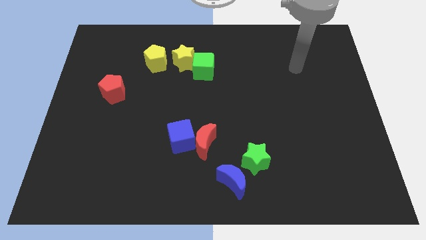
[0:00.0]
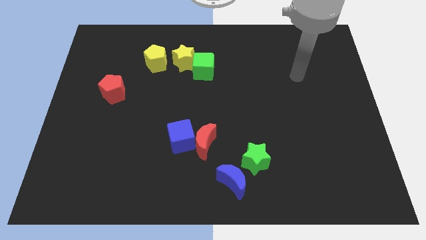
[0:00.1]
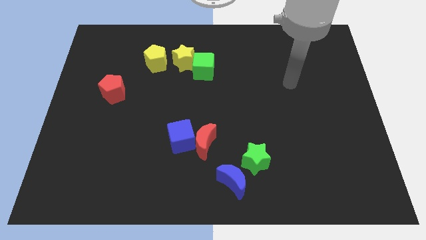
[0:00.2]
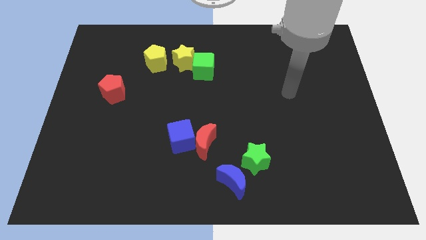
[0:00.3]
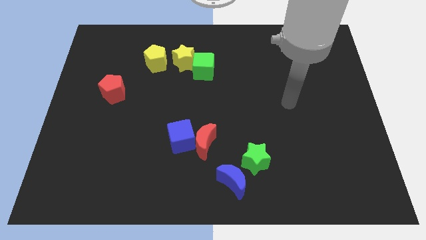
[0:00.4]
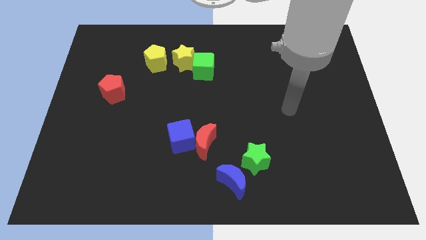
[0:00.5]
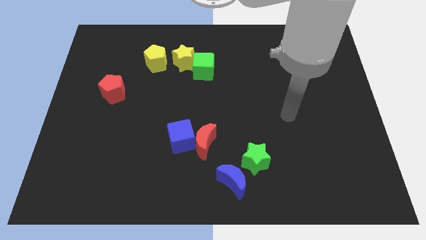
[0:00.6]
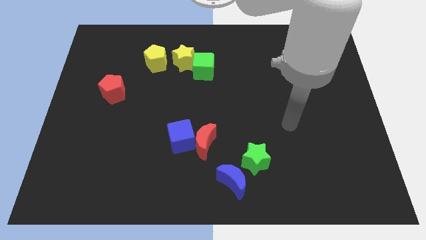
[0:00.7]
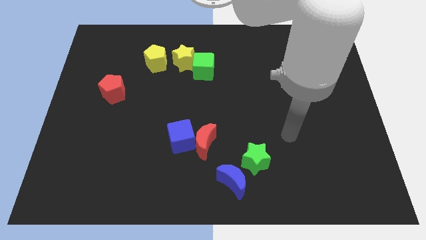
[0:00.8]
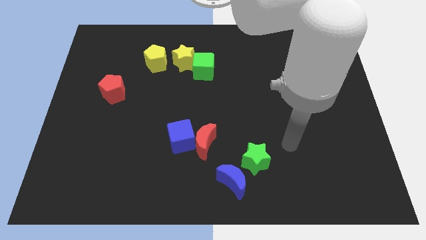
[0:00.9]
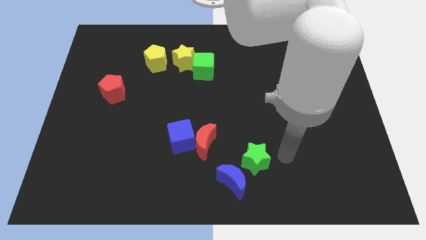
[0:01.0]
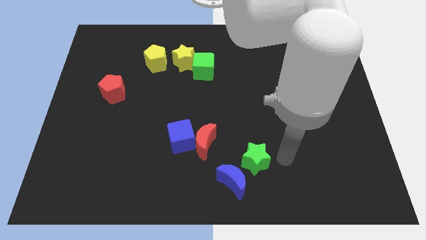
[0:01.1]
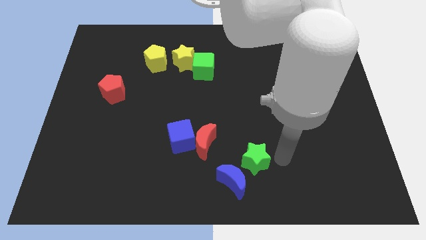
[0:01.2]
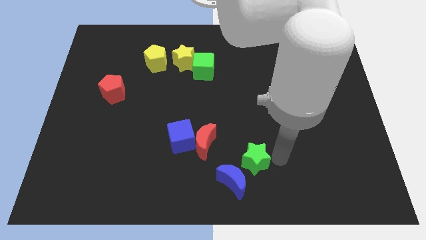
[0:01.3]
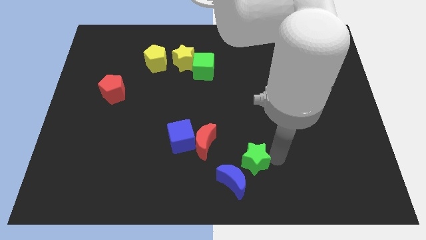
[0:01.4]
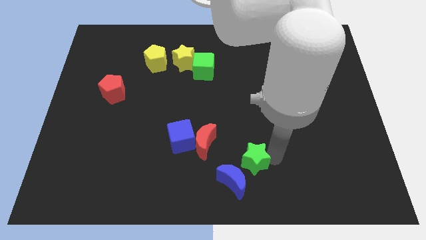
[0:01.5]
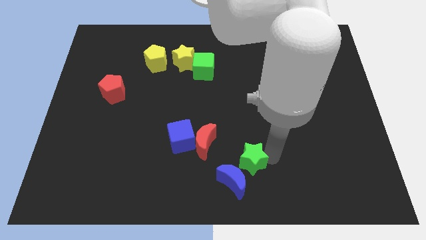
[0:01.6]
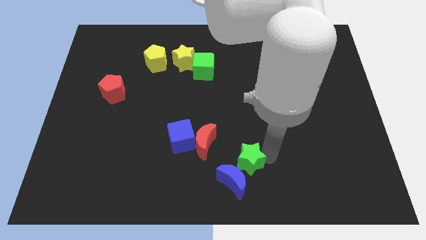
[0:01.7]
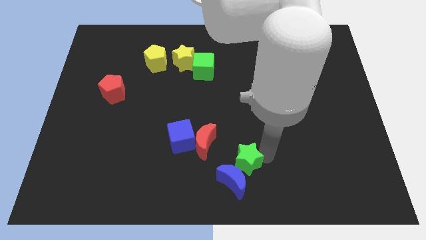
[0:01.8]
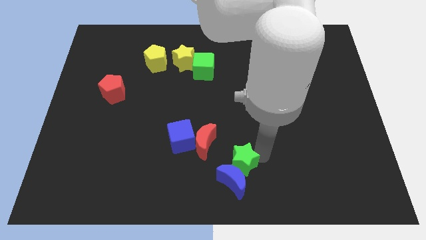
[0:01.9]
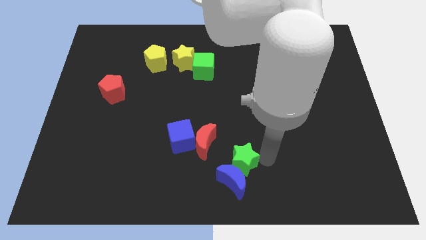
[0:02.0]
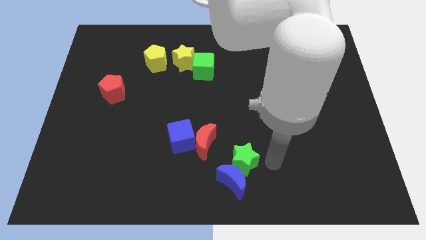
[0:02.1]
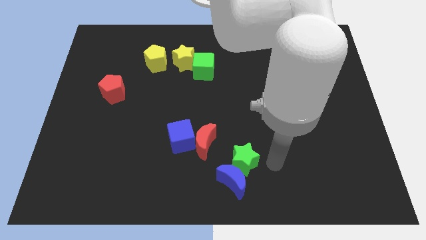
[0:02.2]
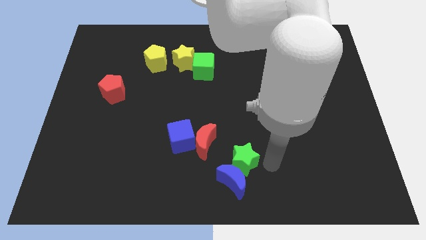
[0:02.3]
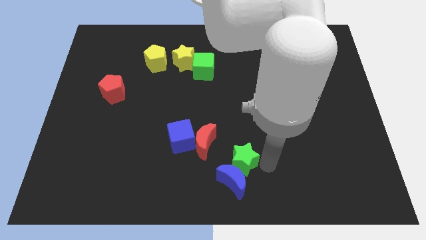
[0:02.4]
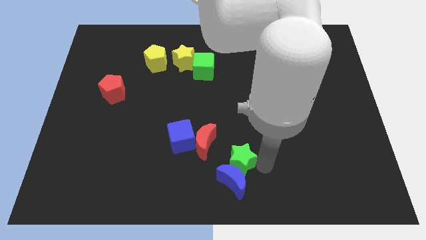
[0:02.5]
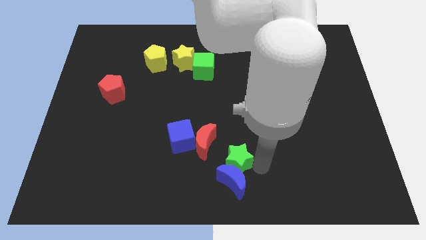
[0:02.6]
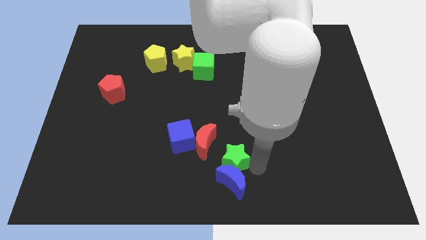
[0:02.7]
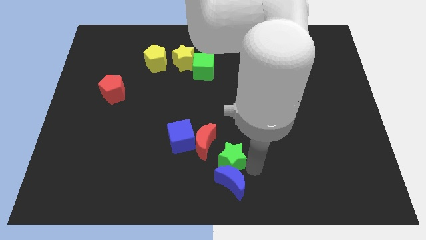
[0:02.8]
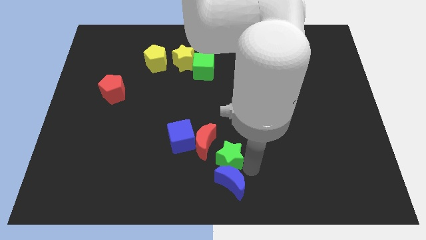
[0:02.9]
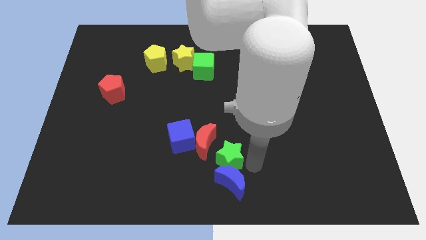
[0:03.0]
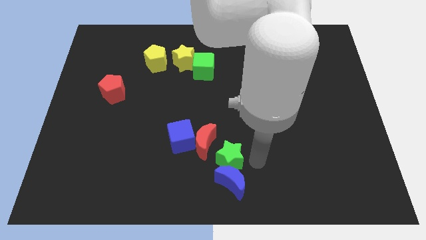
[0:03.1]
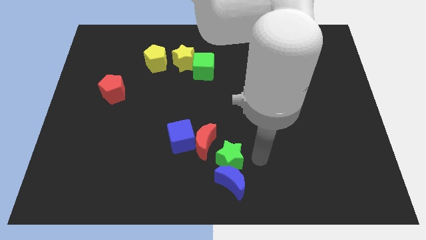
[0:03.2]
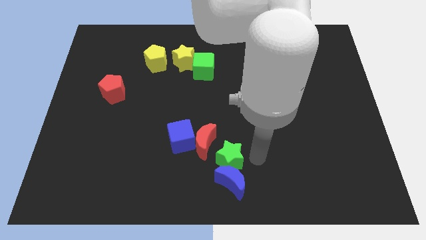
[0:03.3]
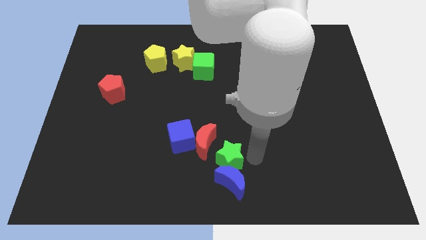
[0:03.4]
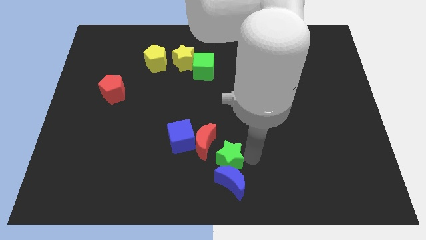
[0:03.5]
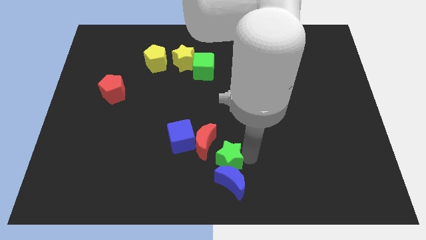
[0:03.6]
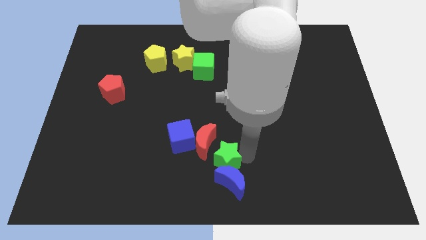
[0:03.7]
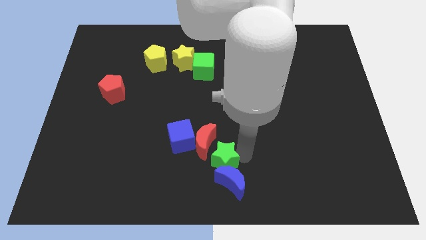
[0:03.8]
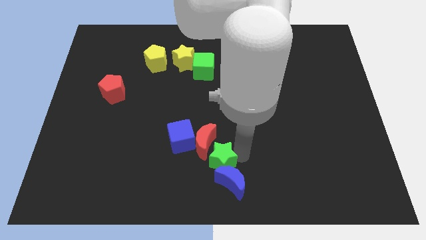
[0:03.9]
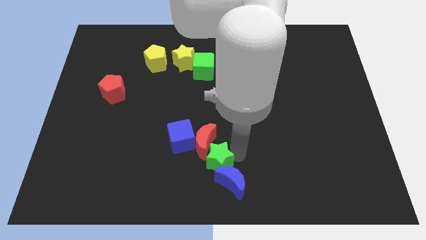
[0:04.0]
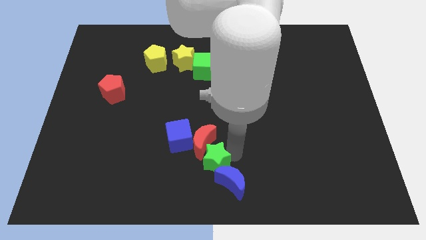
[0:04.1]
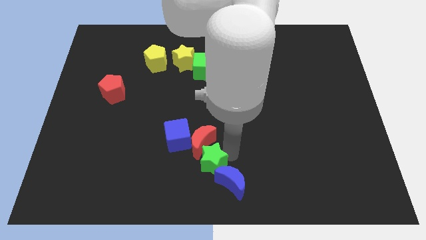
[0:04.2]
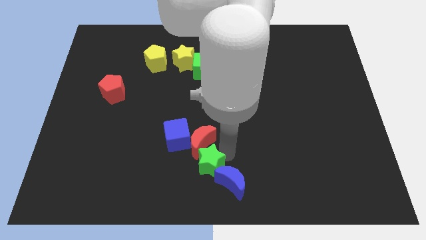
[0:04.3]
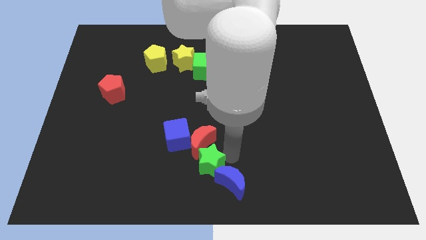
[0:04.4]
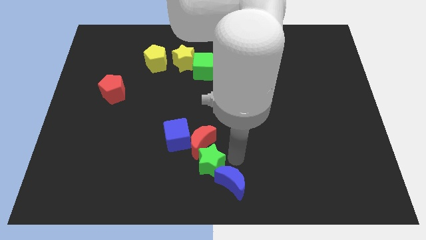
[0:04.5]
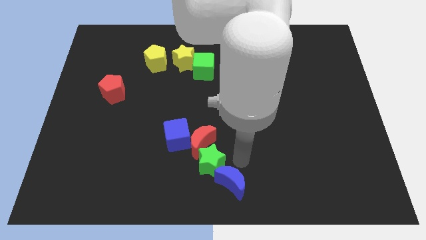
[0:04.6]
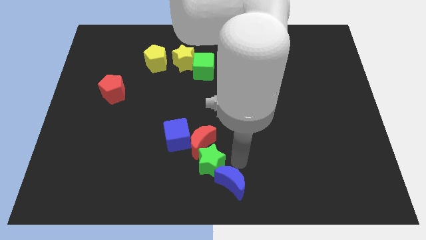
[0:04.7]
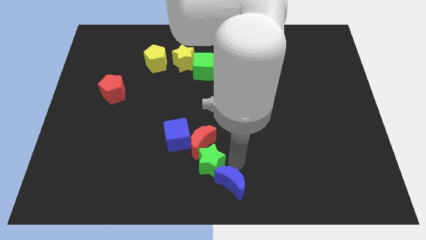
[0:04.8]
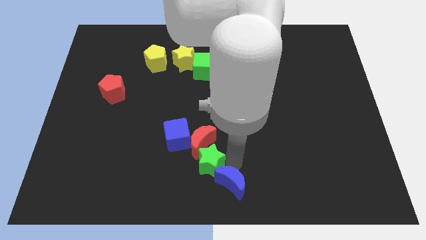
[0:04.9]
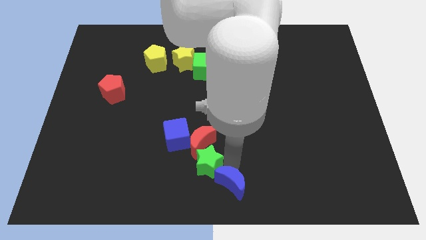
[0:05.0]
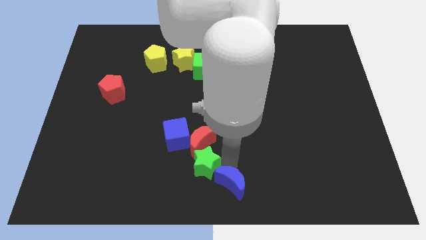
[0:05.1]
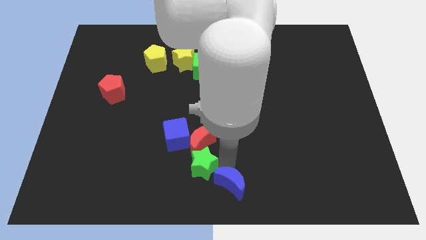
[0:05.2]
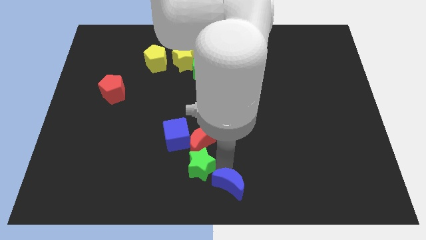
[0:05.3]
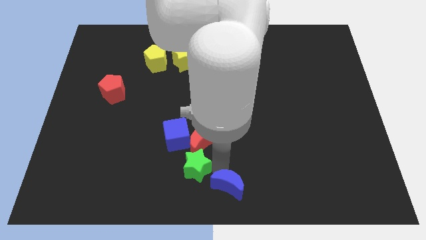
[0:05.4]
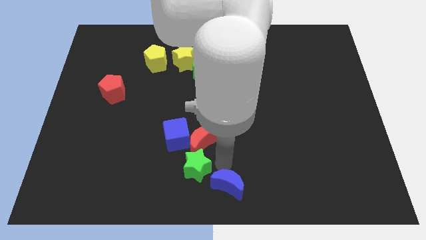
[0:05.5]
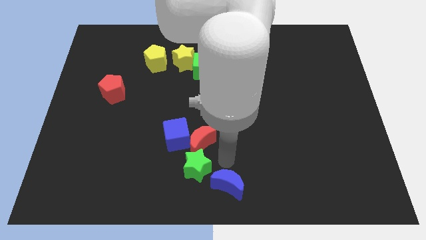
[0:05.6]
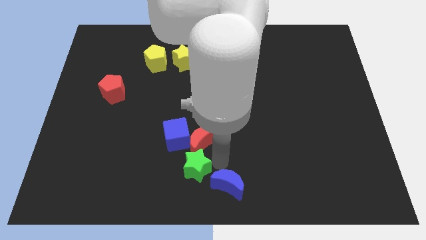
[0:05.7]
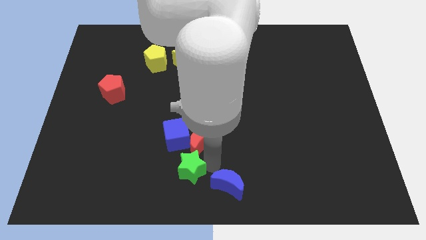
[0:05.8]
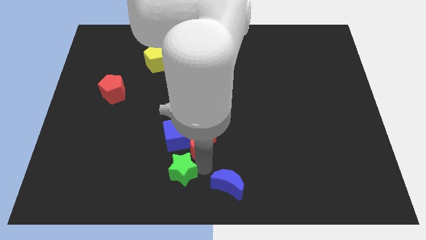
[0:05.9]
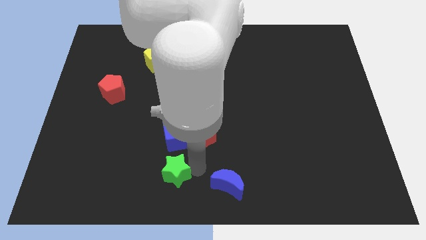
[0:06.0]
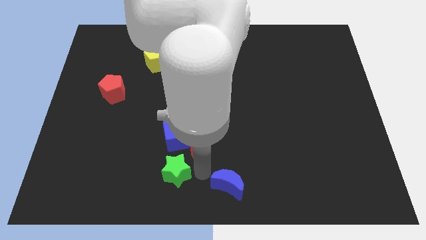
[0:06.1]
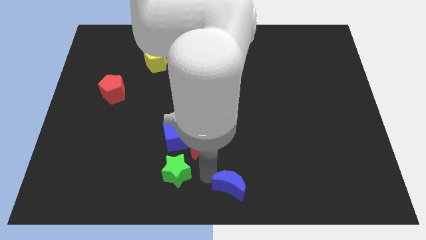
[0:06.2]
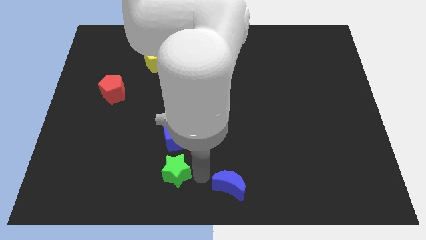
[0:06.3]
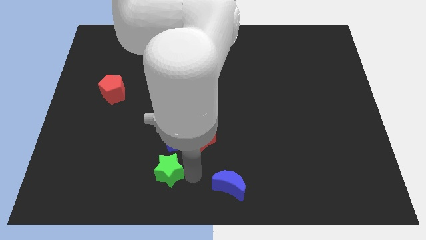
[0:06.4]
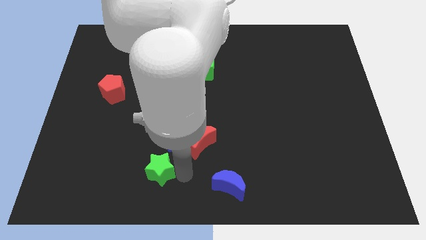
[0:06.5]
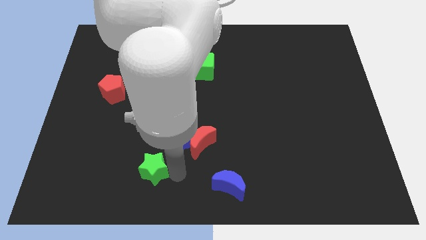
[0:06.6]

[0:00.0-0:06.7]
push the green star to the left

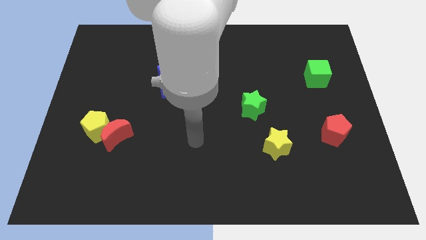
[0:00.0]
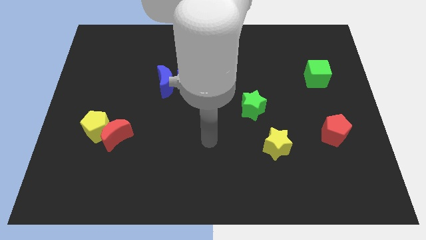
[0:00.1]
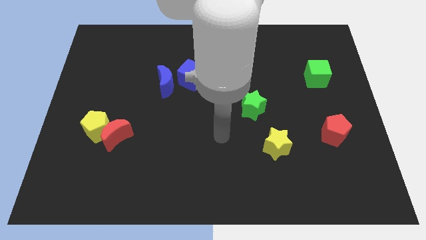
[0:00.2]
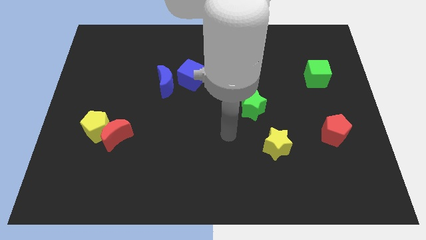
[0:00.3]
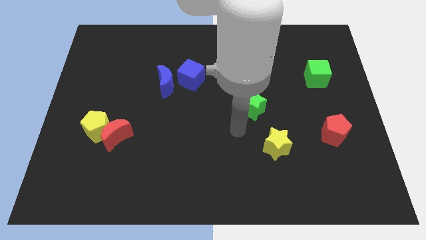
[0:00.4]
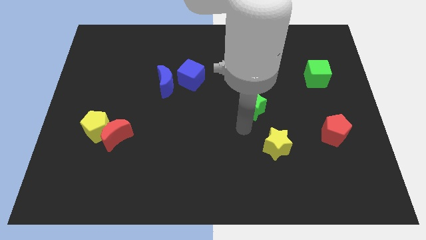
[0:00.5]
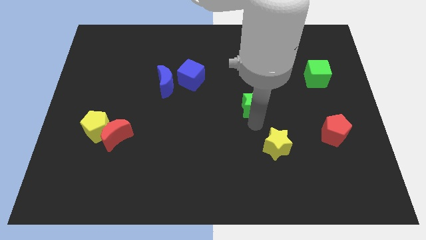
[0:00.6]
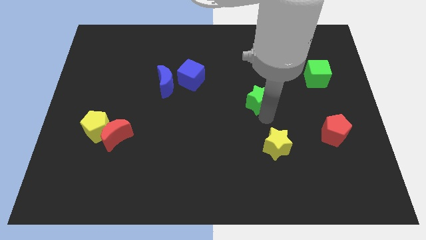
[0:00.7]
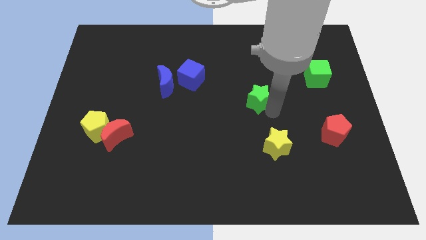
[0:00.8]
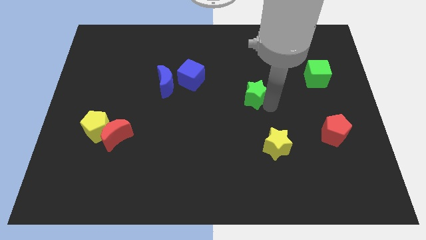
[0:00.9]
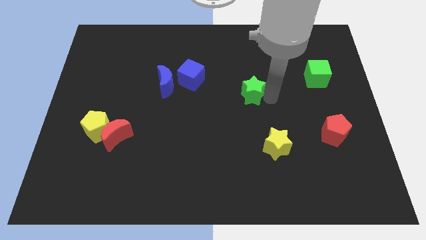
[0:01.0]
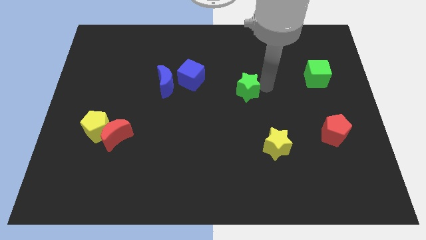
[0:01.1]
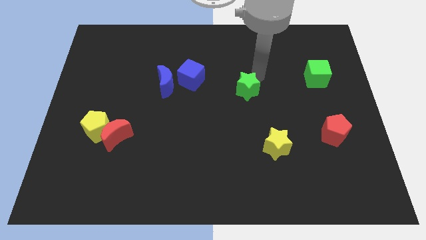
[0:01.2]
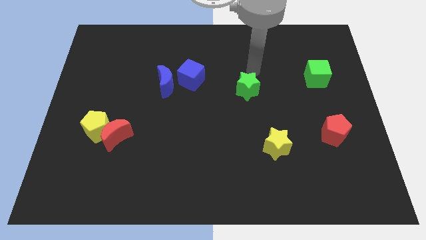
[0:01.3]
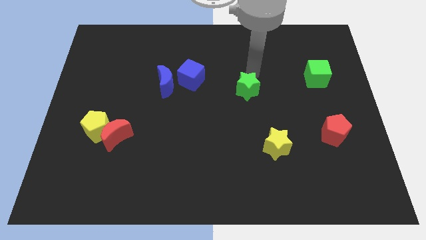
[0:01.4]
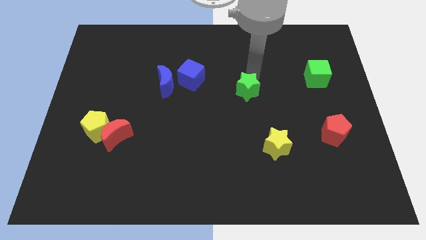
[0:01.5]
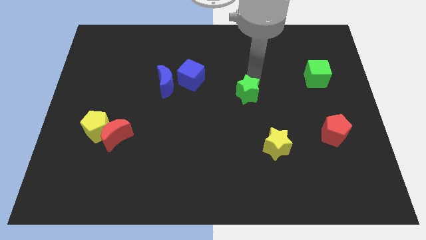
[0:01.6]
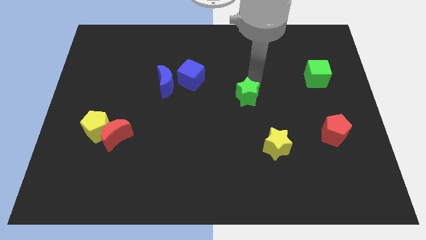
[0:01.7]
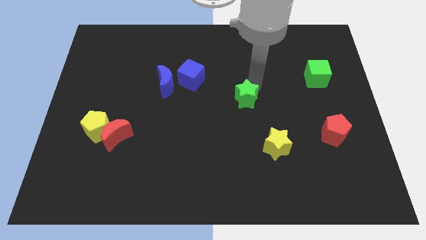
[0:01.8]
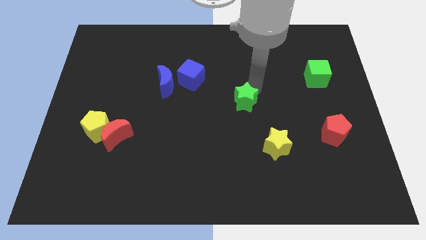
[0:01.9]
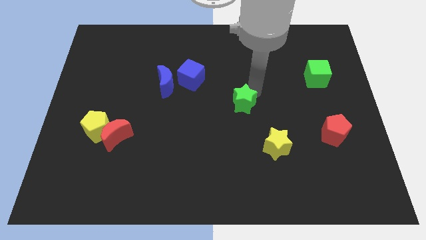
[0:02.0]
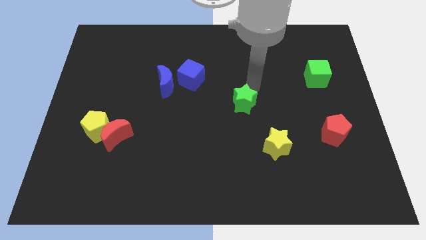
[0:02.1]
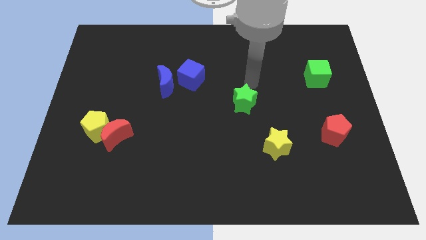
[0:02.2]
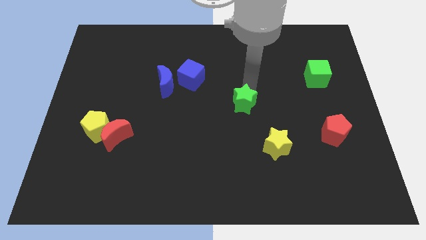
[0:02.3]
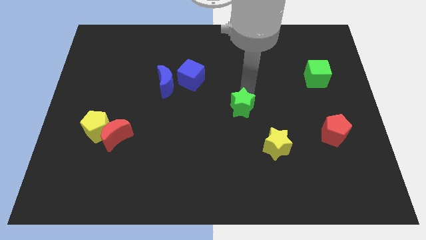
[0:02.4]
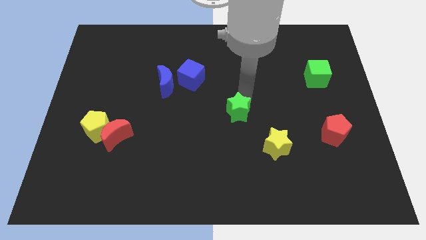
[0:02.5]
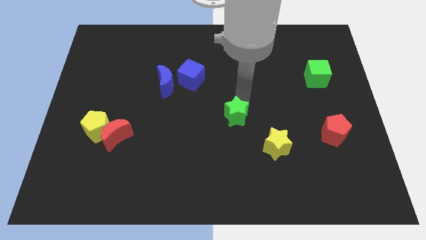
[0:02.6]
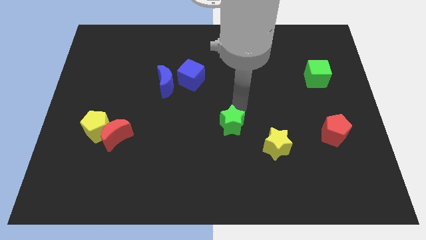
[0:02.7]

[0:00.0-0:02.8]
slightly push the green star diagonally down and left
